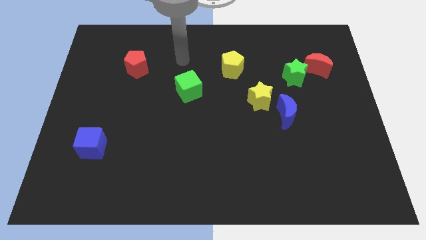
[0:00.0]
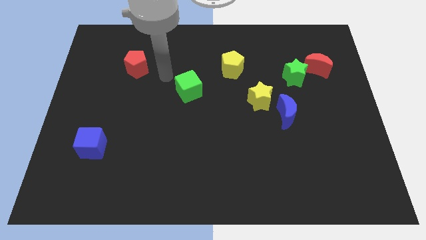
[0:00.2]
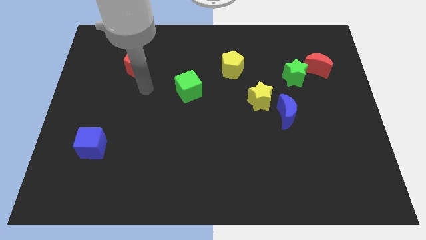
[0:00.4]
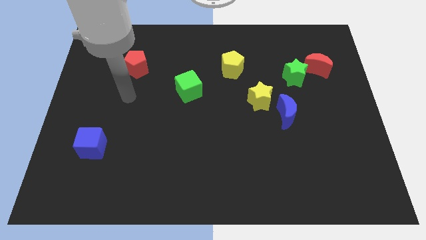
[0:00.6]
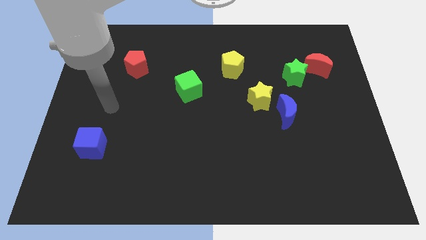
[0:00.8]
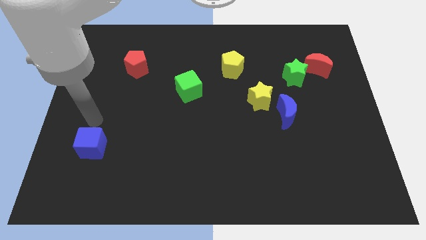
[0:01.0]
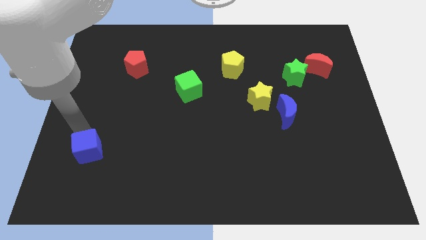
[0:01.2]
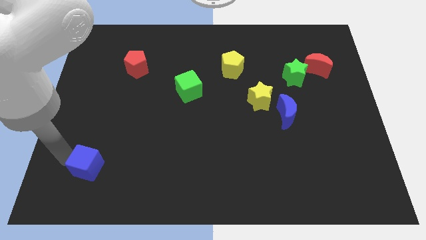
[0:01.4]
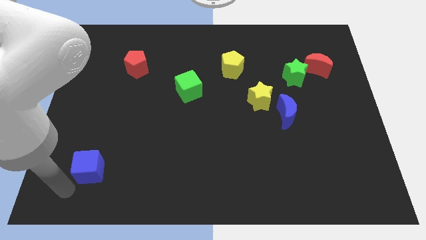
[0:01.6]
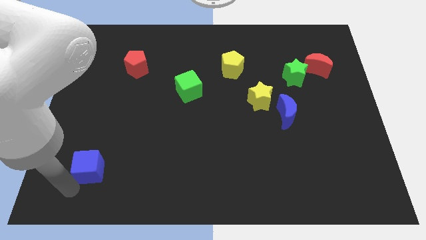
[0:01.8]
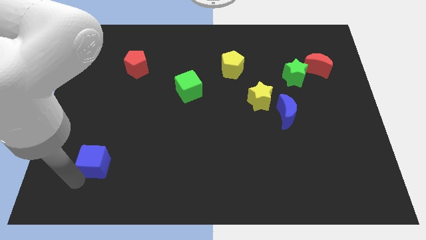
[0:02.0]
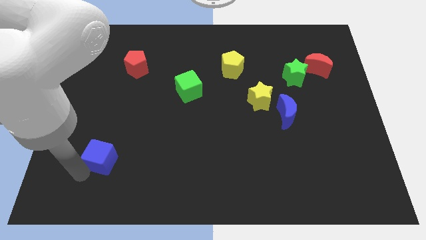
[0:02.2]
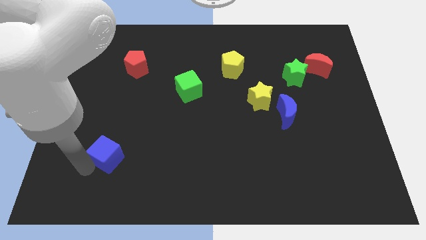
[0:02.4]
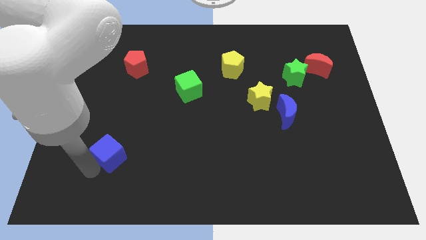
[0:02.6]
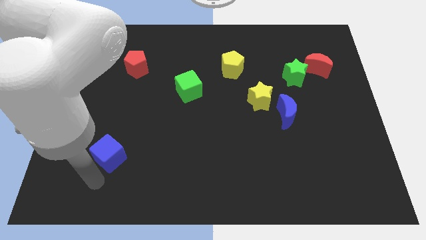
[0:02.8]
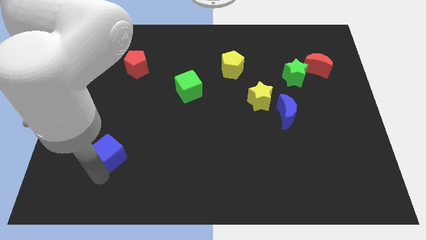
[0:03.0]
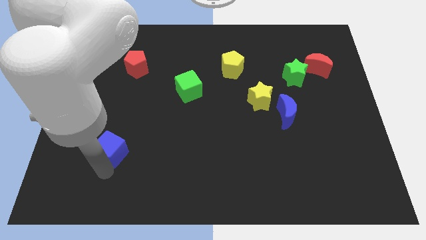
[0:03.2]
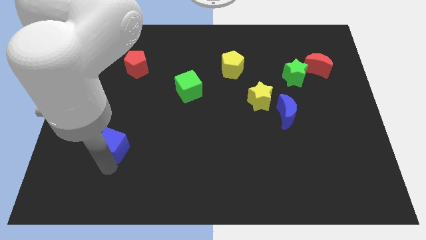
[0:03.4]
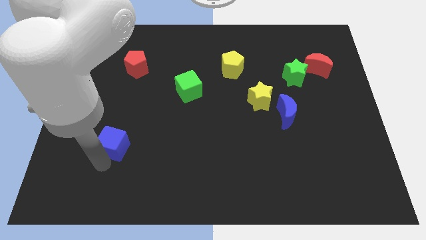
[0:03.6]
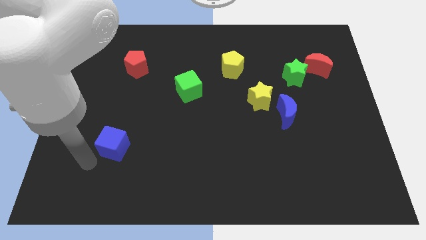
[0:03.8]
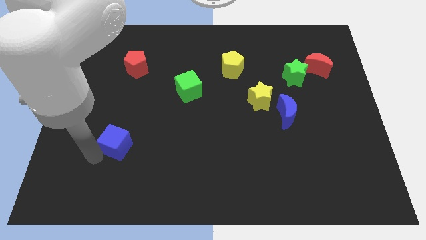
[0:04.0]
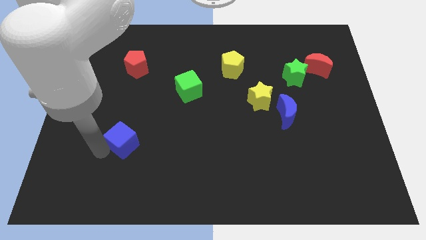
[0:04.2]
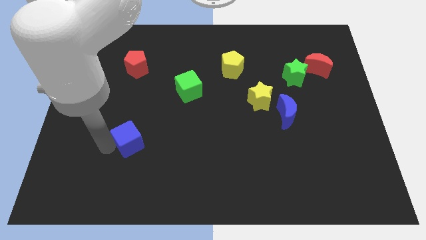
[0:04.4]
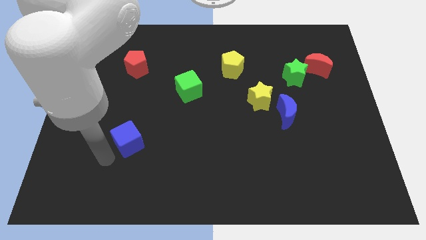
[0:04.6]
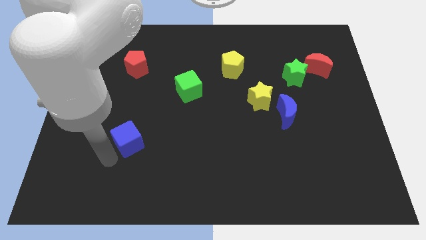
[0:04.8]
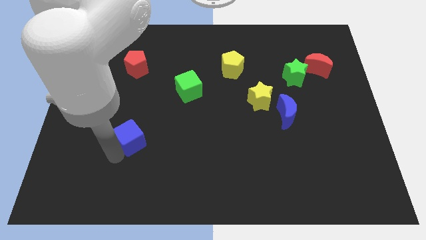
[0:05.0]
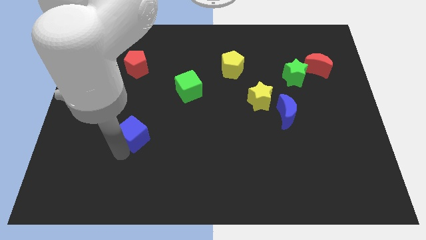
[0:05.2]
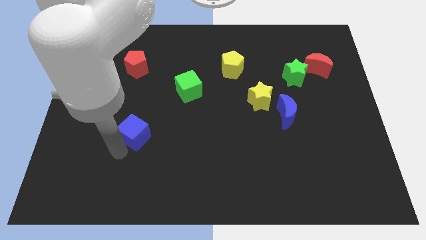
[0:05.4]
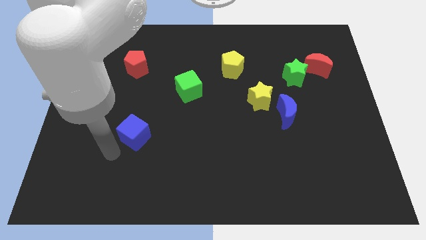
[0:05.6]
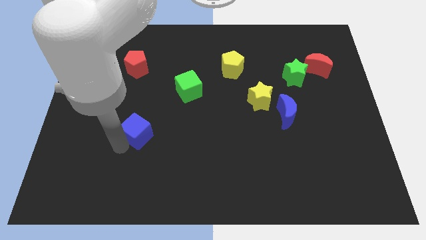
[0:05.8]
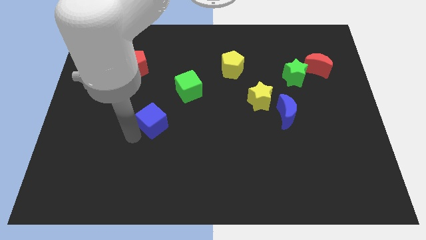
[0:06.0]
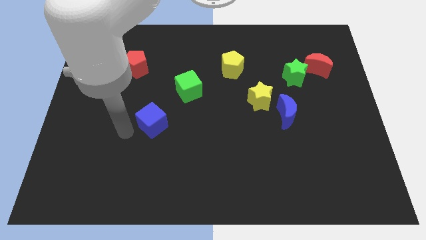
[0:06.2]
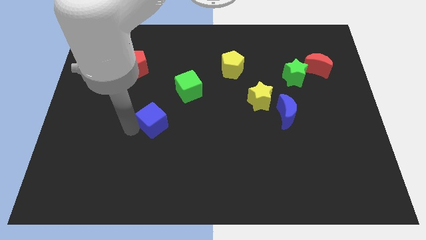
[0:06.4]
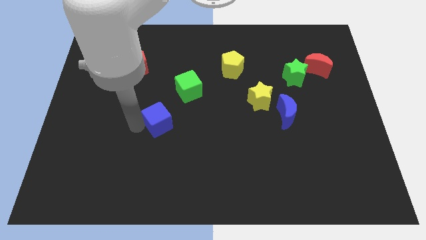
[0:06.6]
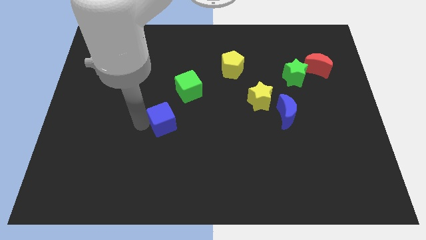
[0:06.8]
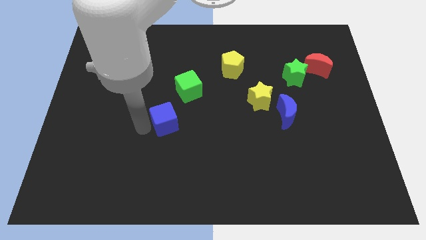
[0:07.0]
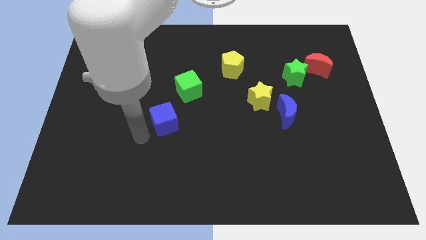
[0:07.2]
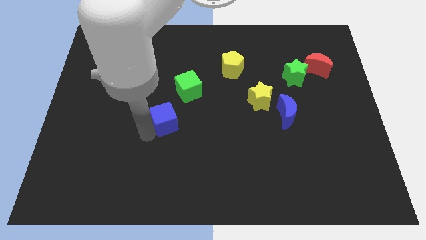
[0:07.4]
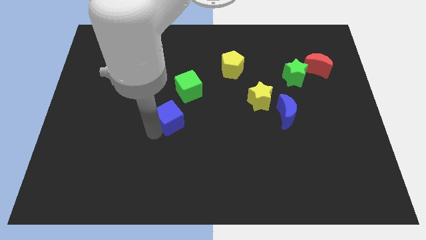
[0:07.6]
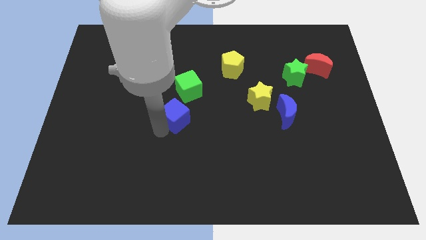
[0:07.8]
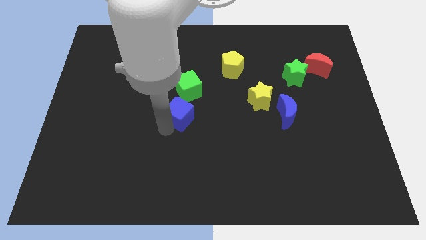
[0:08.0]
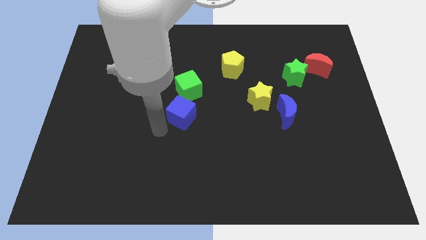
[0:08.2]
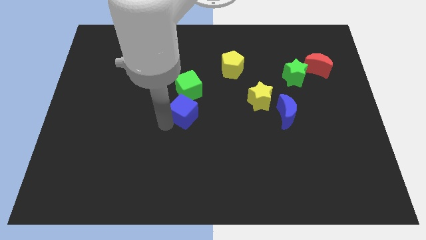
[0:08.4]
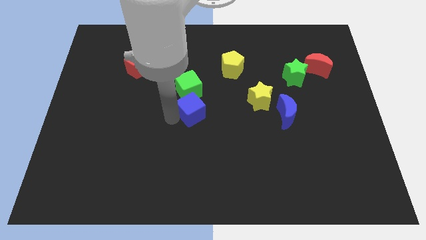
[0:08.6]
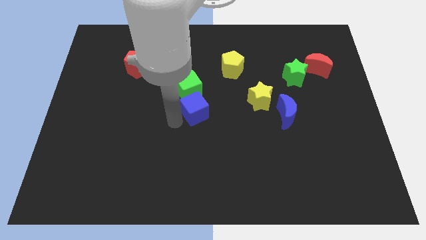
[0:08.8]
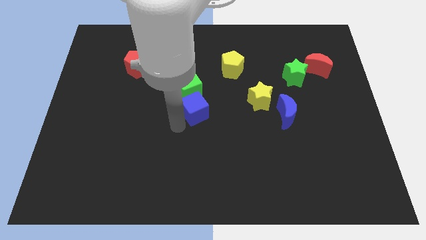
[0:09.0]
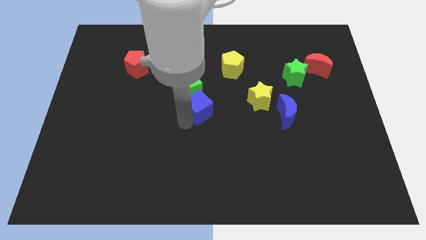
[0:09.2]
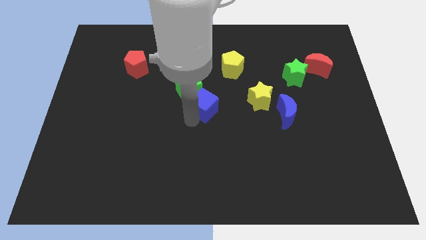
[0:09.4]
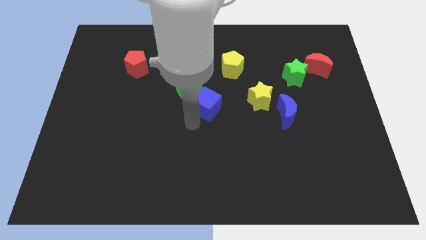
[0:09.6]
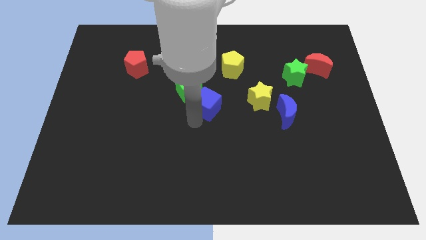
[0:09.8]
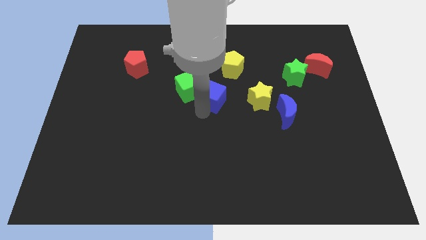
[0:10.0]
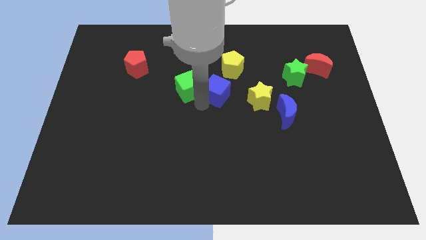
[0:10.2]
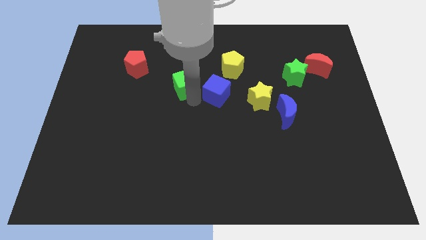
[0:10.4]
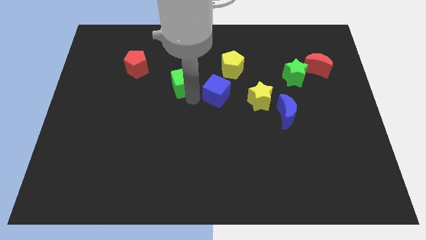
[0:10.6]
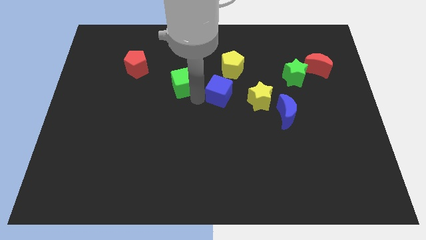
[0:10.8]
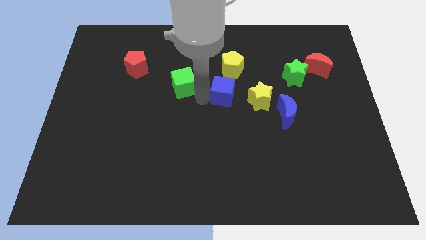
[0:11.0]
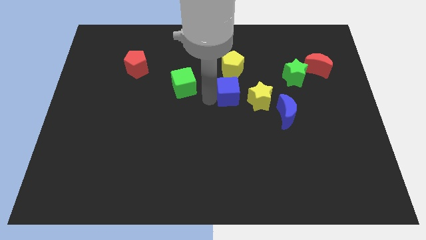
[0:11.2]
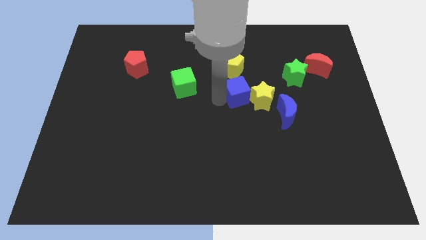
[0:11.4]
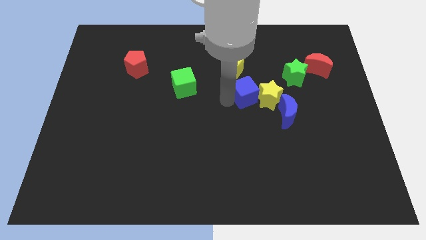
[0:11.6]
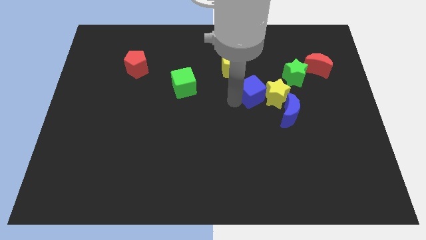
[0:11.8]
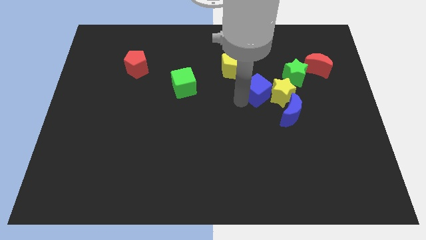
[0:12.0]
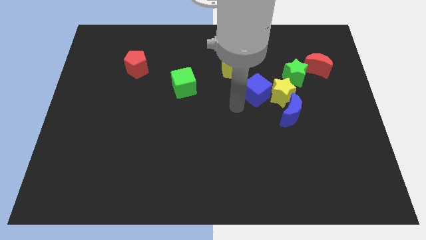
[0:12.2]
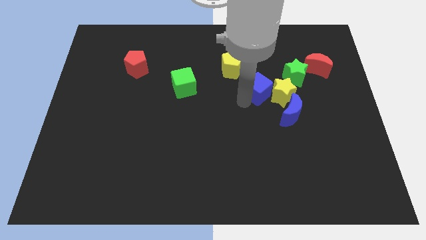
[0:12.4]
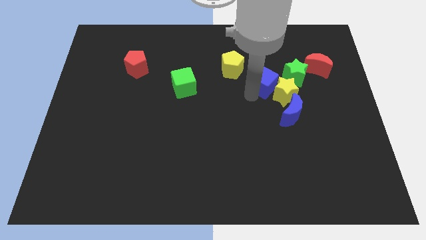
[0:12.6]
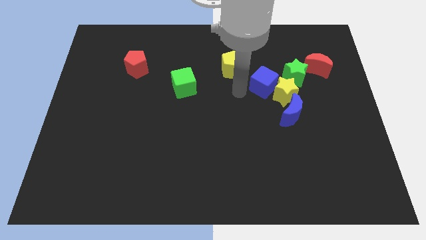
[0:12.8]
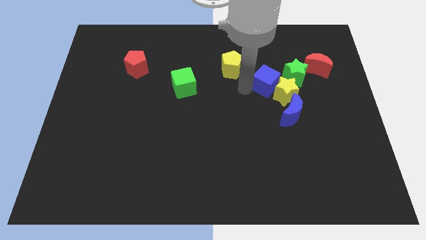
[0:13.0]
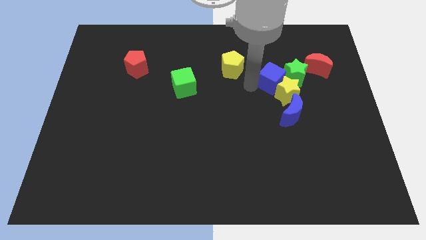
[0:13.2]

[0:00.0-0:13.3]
move the blue cube close to the green star
